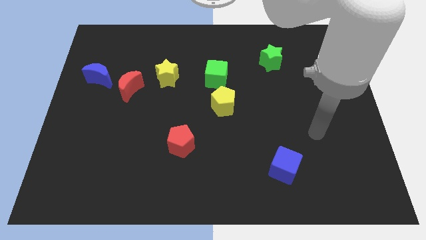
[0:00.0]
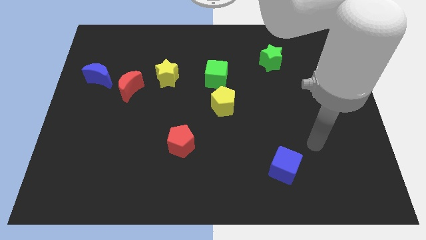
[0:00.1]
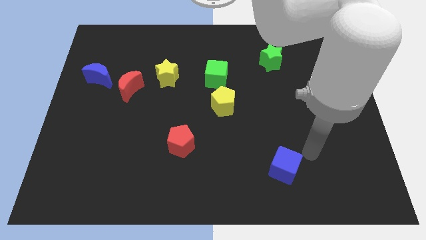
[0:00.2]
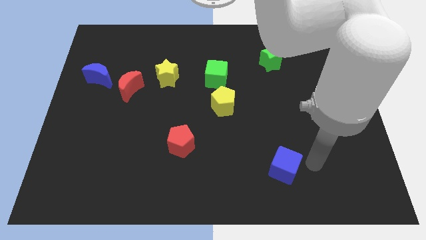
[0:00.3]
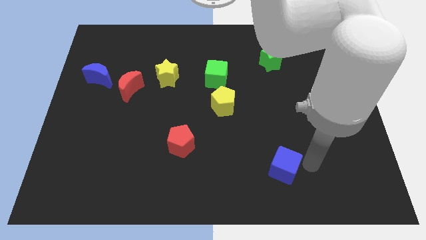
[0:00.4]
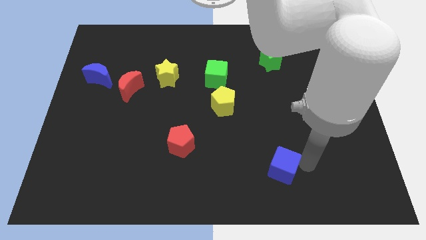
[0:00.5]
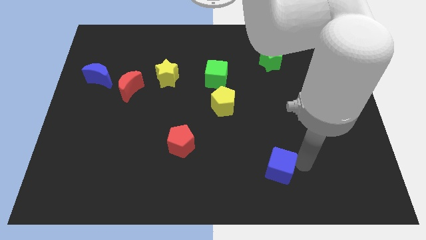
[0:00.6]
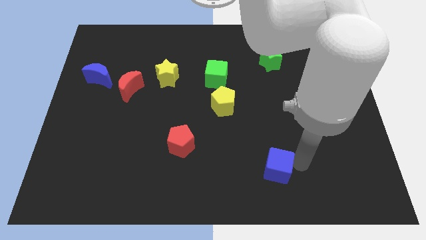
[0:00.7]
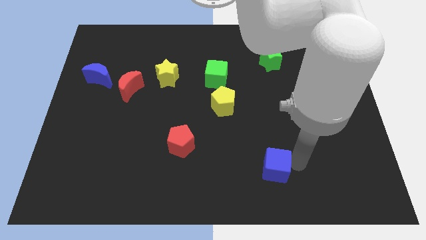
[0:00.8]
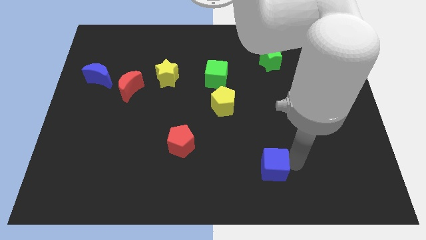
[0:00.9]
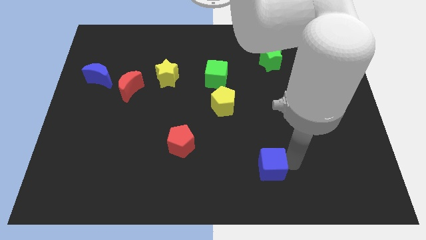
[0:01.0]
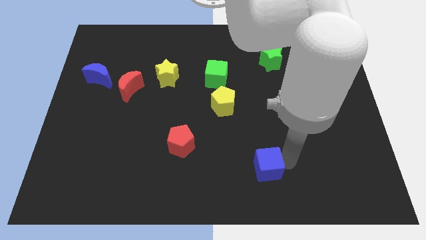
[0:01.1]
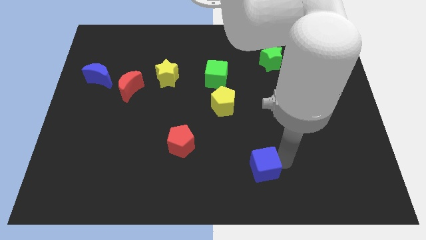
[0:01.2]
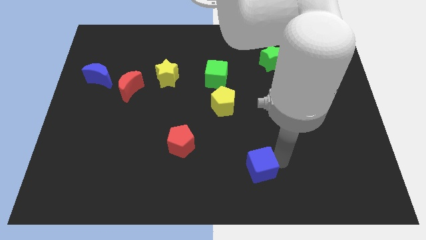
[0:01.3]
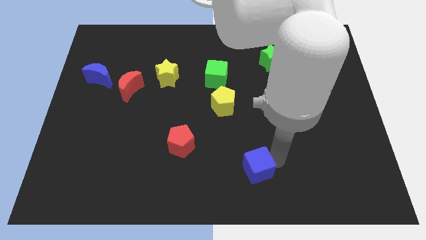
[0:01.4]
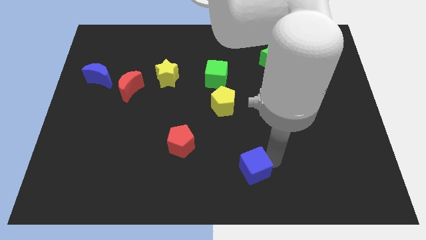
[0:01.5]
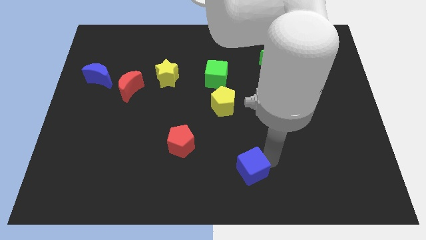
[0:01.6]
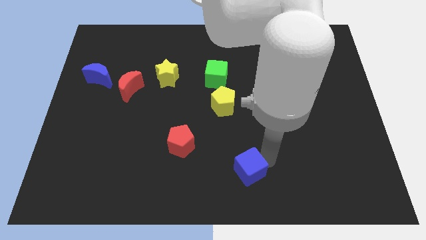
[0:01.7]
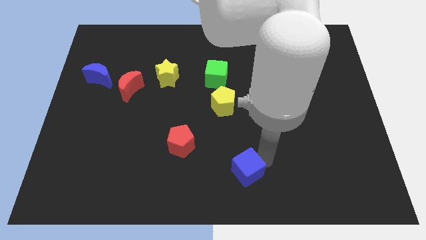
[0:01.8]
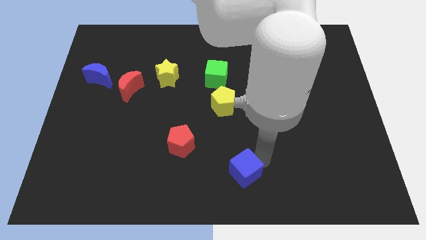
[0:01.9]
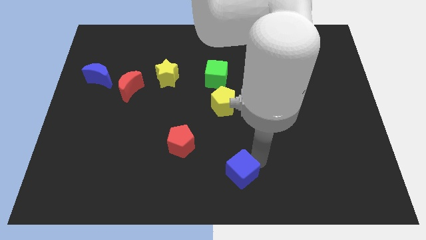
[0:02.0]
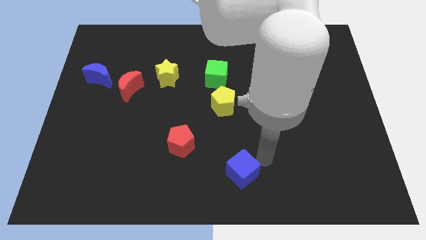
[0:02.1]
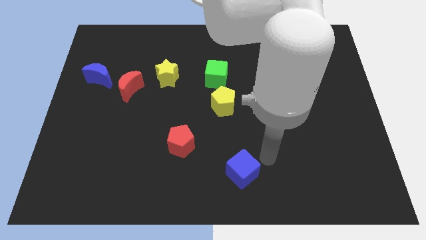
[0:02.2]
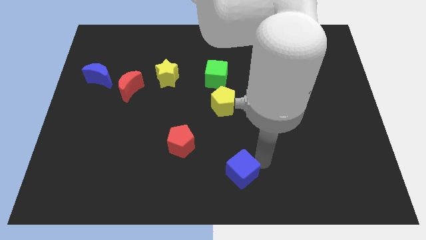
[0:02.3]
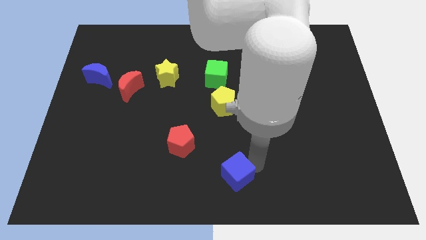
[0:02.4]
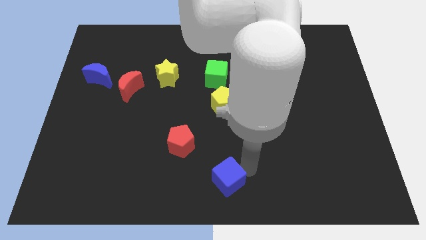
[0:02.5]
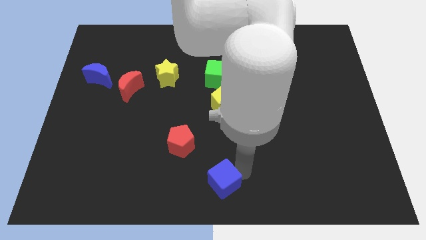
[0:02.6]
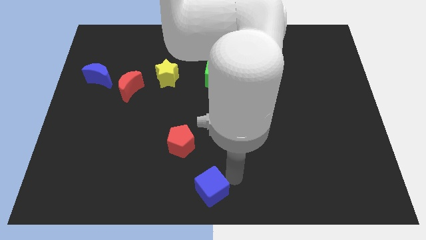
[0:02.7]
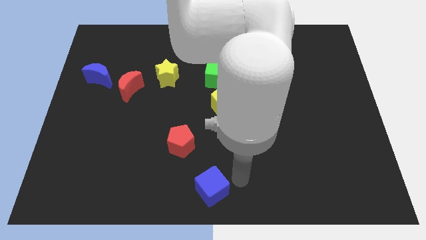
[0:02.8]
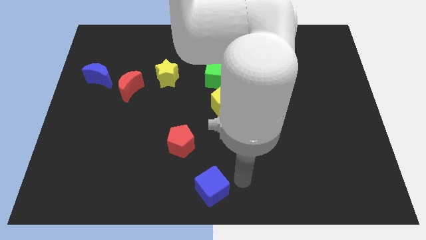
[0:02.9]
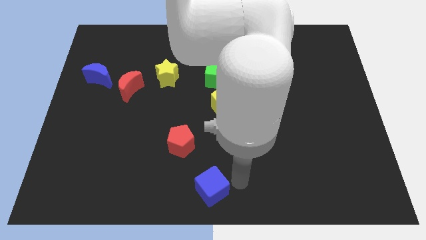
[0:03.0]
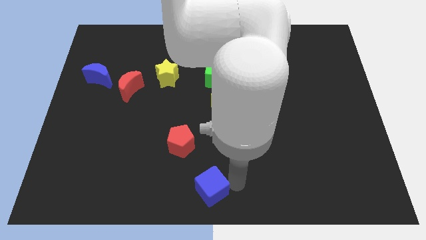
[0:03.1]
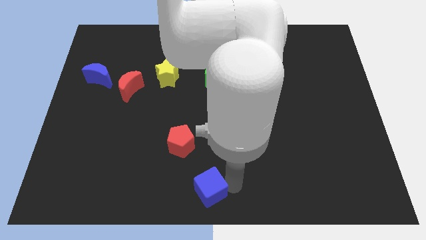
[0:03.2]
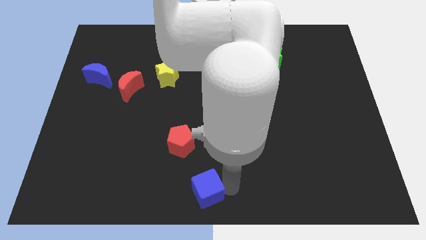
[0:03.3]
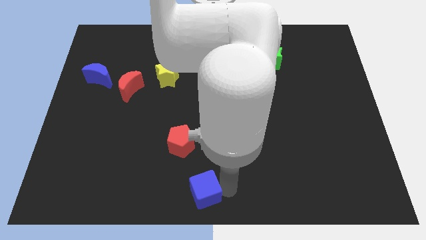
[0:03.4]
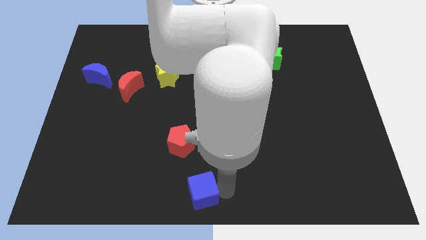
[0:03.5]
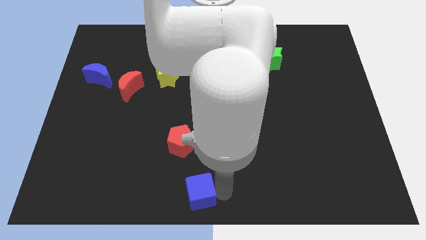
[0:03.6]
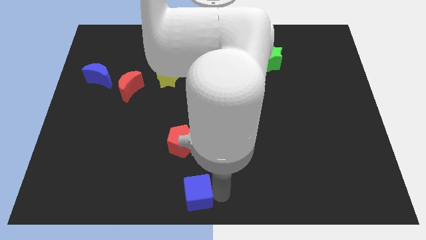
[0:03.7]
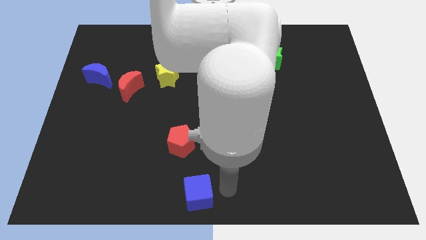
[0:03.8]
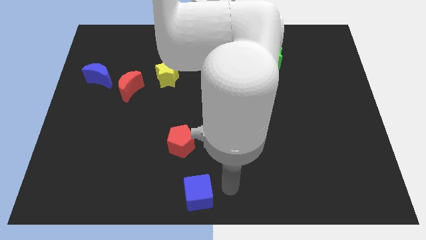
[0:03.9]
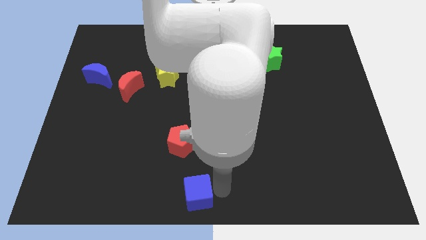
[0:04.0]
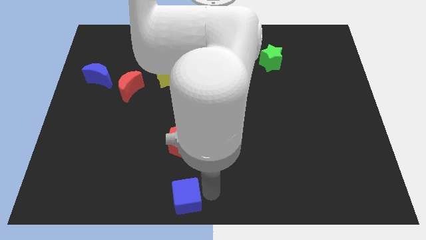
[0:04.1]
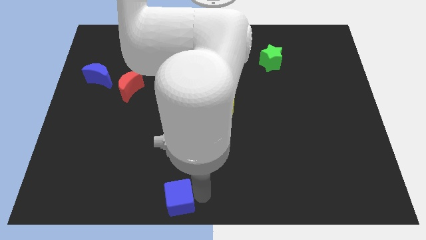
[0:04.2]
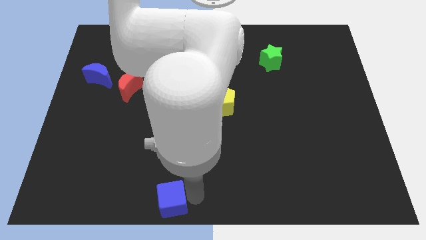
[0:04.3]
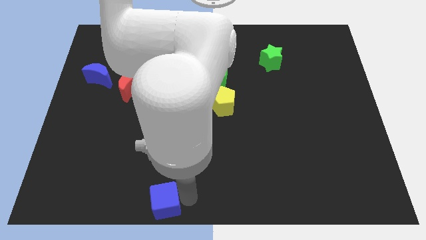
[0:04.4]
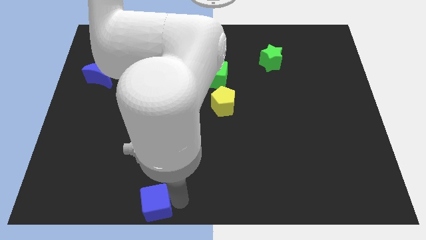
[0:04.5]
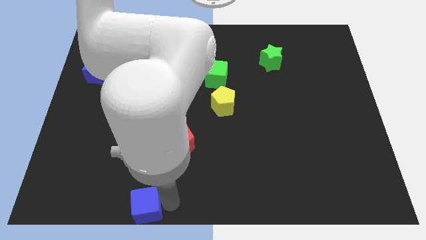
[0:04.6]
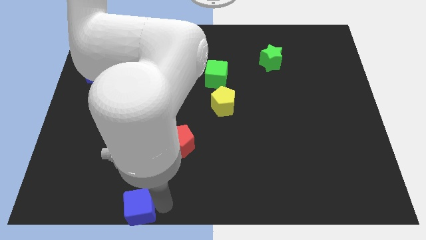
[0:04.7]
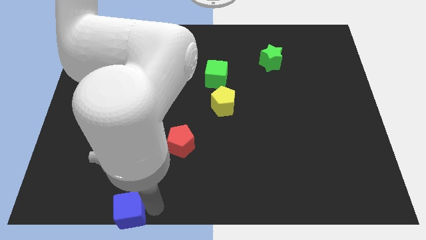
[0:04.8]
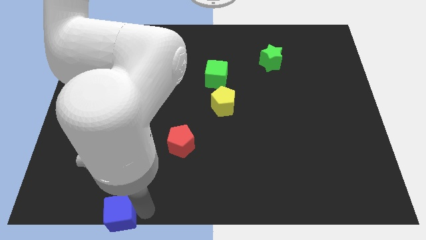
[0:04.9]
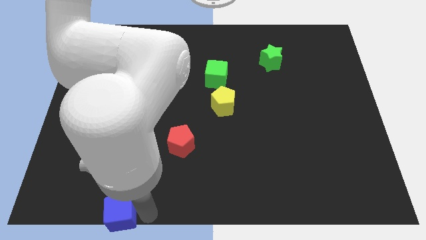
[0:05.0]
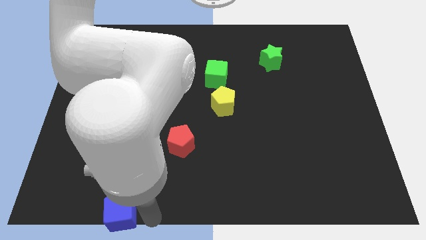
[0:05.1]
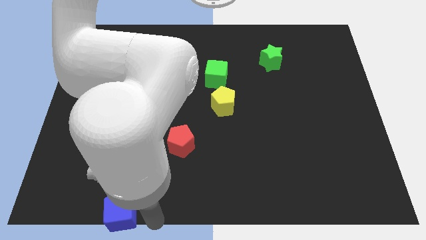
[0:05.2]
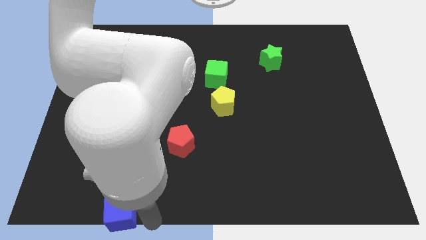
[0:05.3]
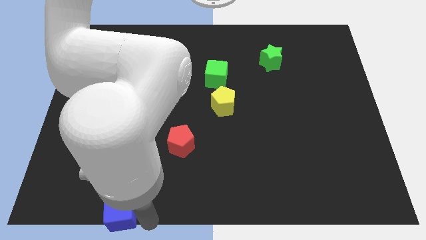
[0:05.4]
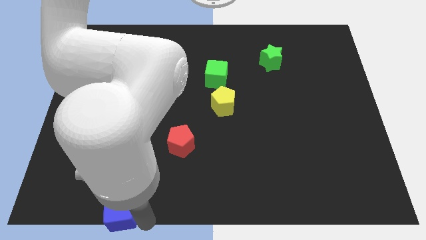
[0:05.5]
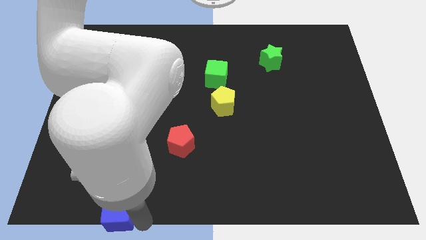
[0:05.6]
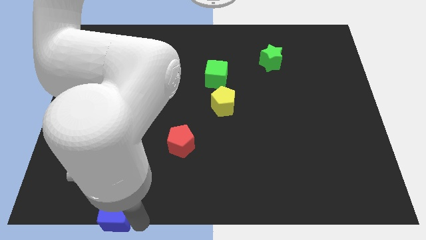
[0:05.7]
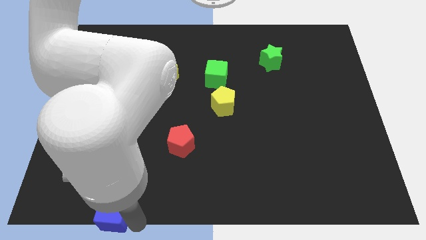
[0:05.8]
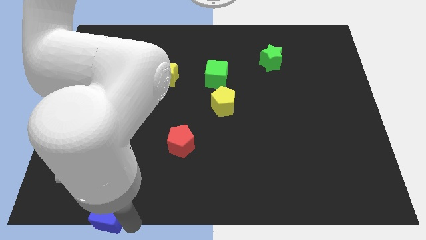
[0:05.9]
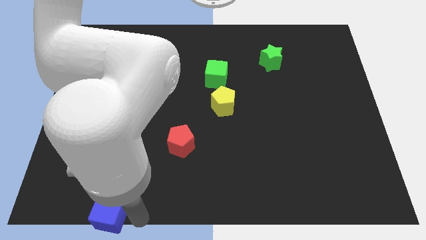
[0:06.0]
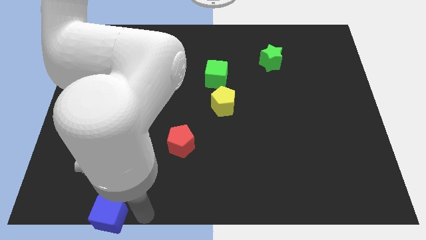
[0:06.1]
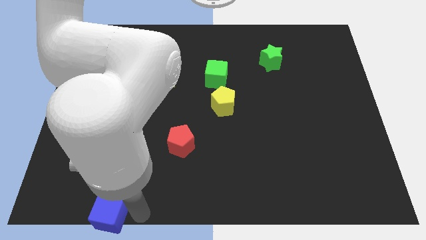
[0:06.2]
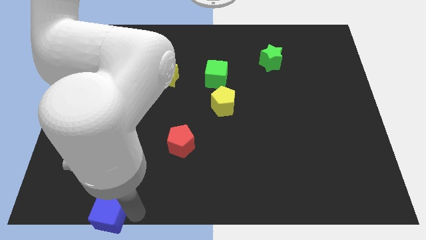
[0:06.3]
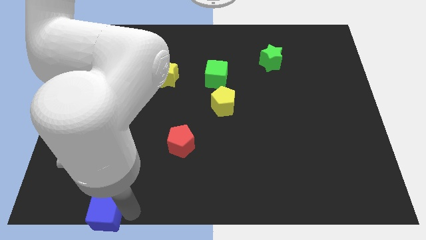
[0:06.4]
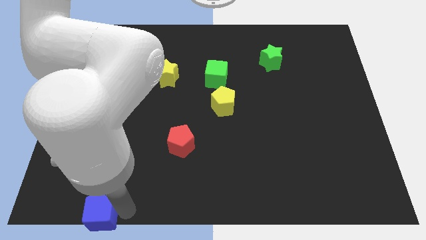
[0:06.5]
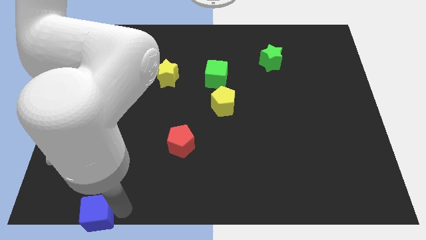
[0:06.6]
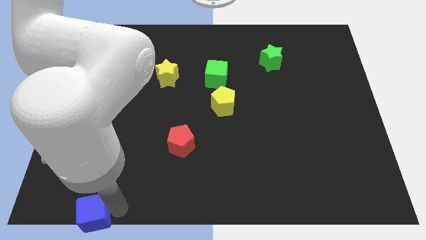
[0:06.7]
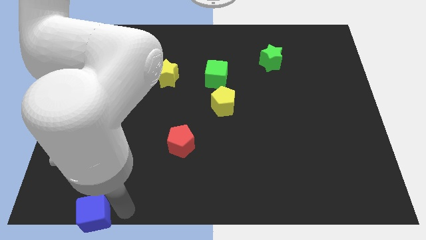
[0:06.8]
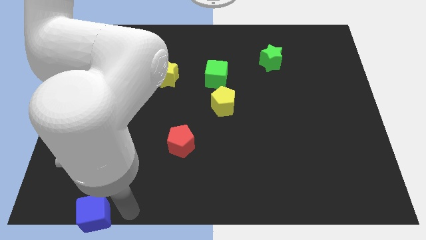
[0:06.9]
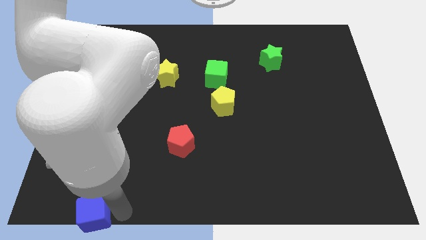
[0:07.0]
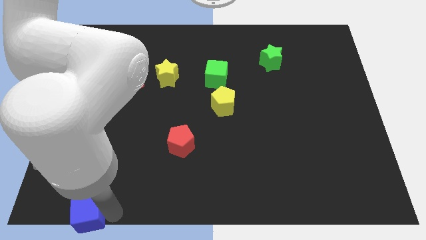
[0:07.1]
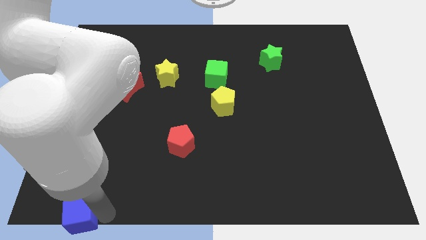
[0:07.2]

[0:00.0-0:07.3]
move the blue cube to the lower left corner
